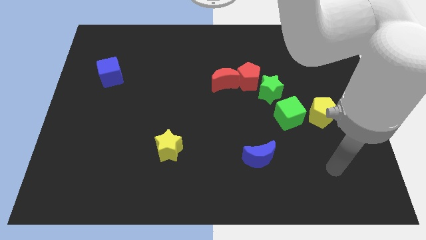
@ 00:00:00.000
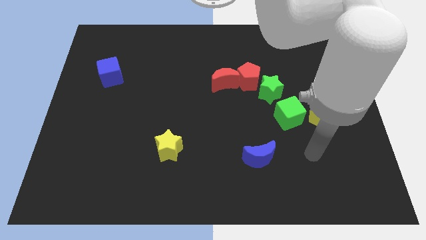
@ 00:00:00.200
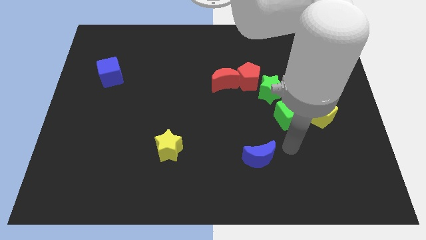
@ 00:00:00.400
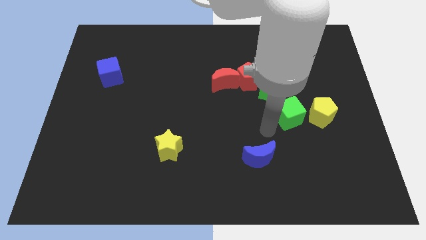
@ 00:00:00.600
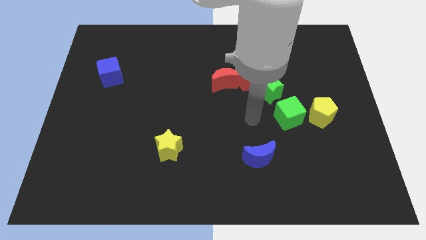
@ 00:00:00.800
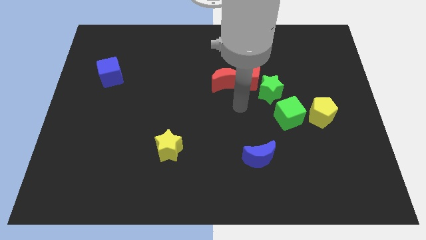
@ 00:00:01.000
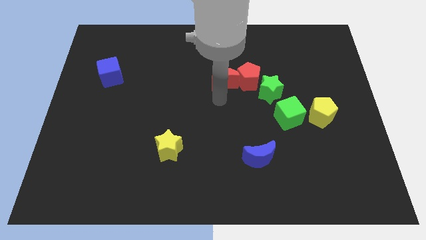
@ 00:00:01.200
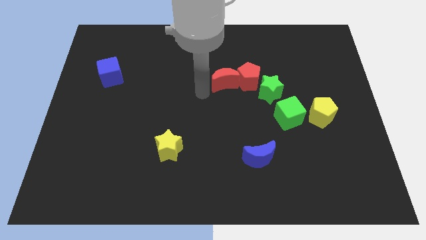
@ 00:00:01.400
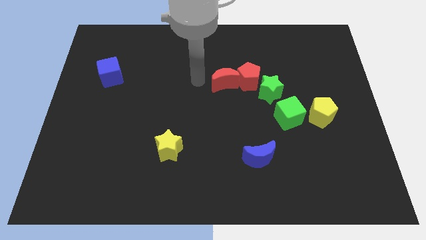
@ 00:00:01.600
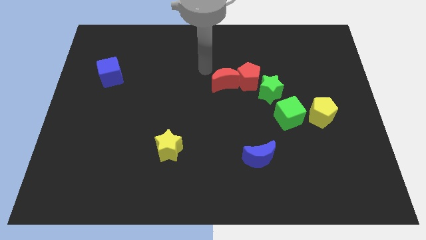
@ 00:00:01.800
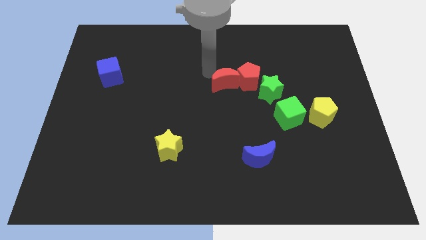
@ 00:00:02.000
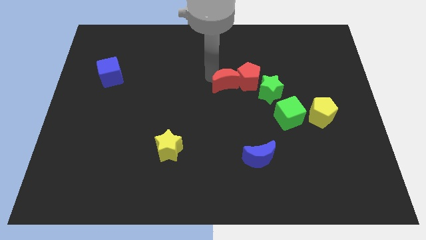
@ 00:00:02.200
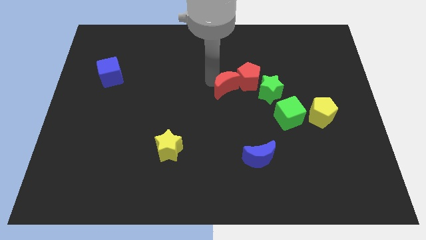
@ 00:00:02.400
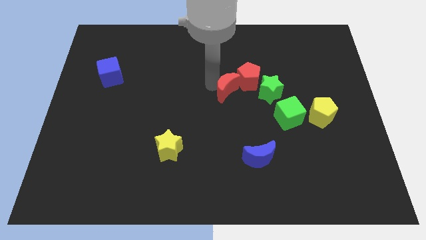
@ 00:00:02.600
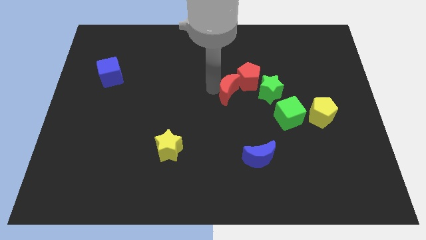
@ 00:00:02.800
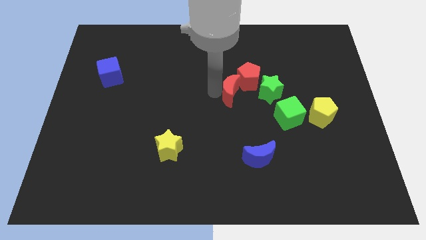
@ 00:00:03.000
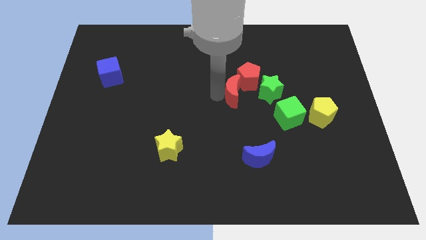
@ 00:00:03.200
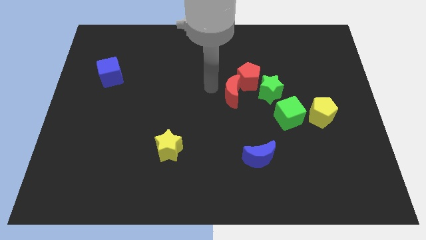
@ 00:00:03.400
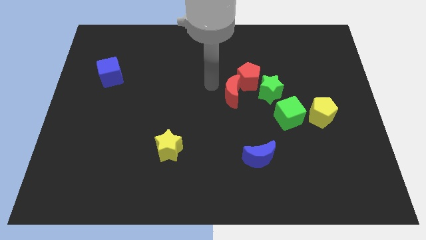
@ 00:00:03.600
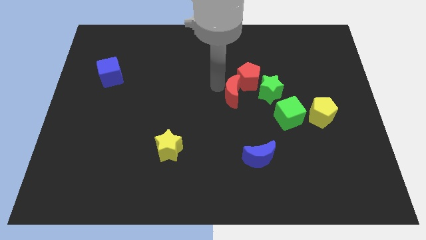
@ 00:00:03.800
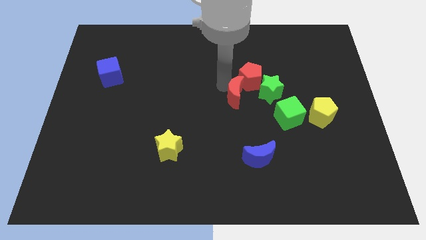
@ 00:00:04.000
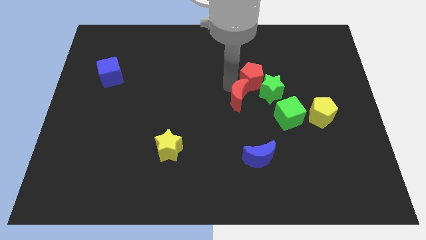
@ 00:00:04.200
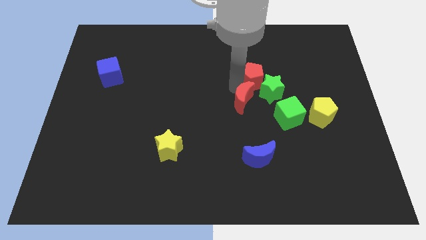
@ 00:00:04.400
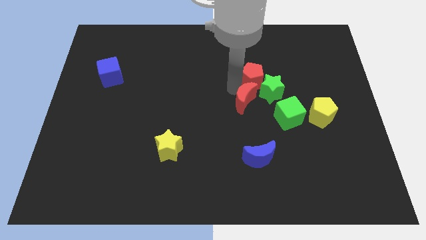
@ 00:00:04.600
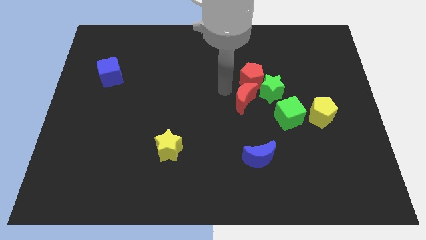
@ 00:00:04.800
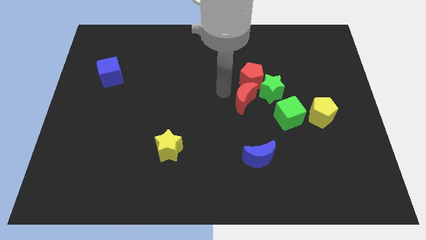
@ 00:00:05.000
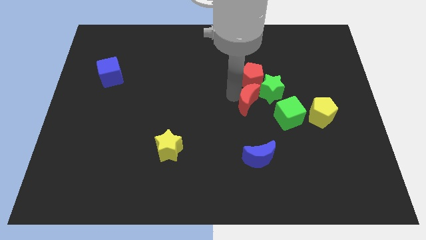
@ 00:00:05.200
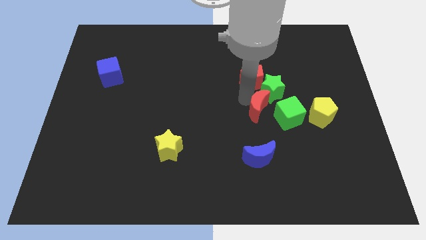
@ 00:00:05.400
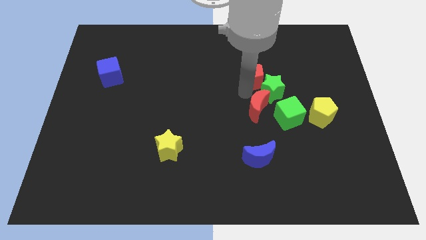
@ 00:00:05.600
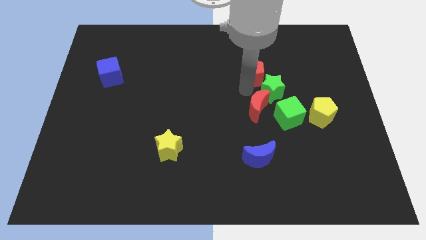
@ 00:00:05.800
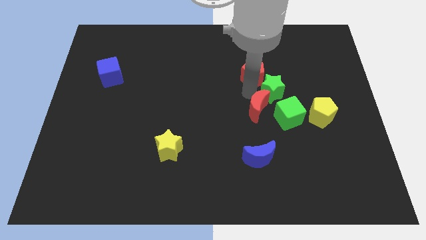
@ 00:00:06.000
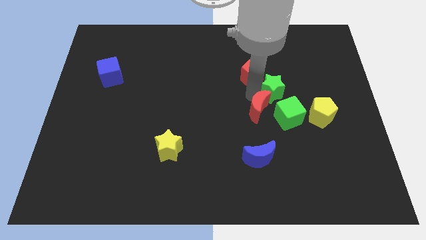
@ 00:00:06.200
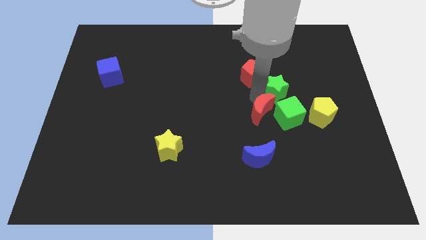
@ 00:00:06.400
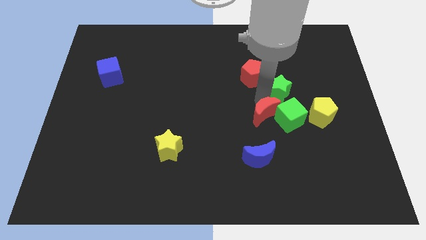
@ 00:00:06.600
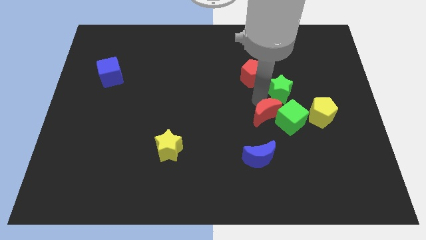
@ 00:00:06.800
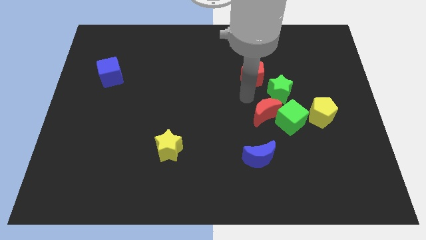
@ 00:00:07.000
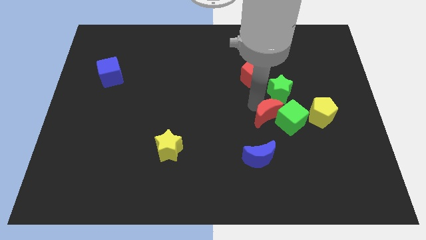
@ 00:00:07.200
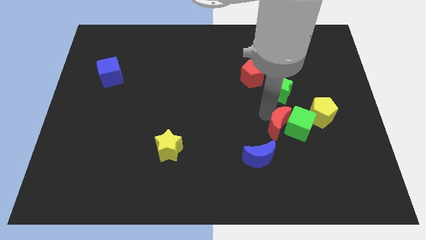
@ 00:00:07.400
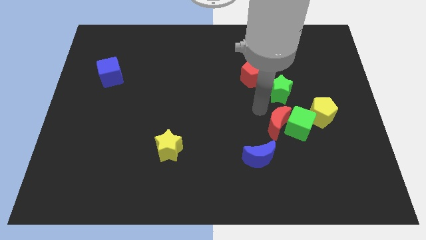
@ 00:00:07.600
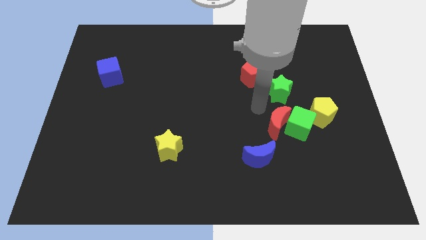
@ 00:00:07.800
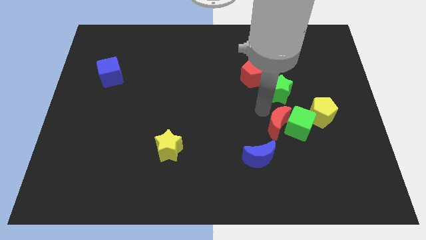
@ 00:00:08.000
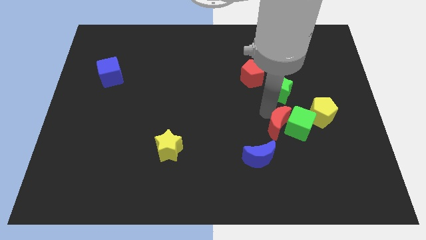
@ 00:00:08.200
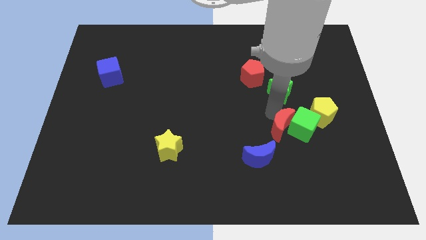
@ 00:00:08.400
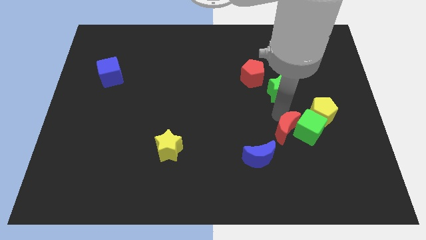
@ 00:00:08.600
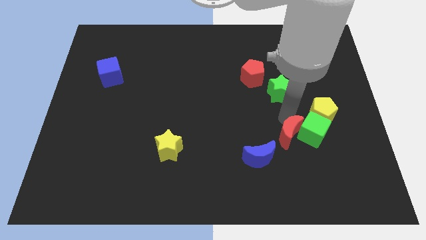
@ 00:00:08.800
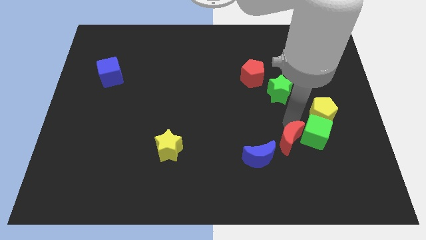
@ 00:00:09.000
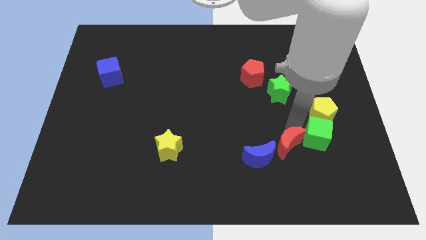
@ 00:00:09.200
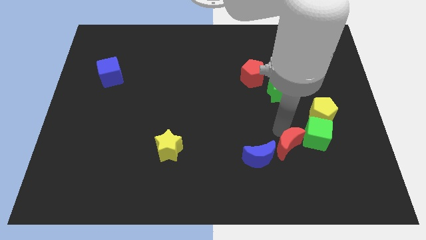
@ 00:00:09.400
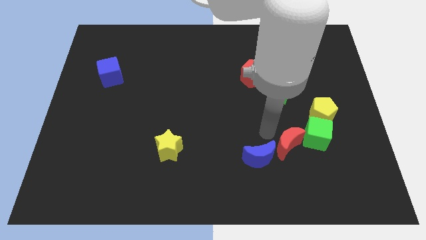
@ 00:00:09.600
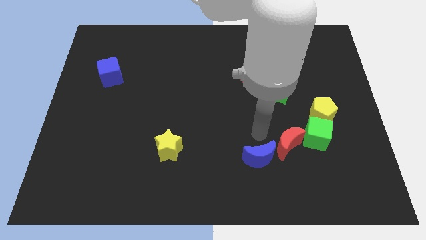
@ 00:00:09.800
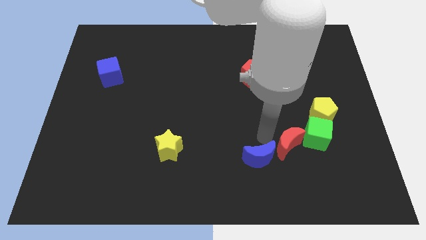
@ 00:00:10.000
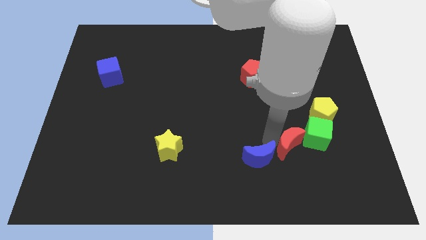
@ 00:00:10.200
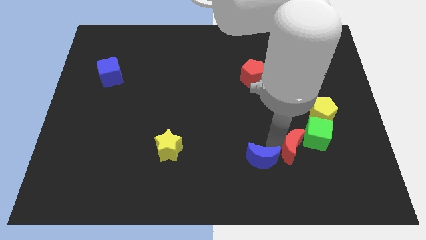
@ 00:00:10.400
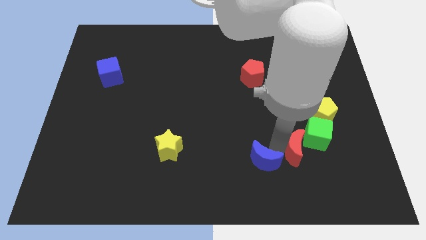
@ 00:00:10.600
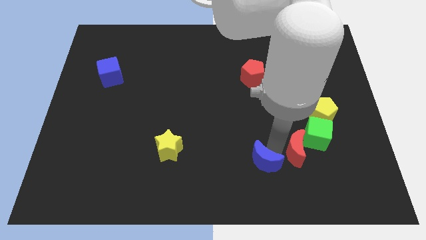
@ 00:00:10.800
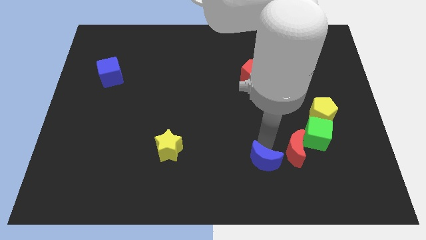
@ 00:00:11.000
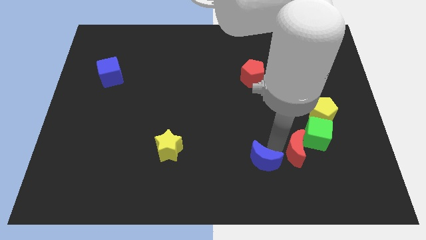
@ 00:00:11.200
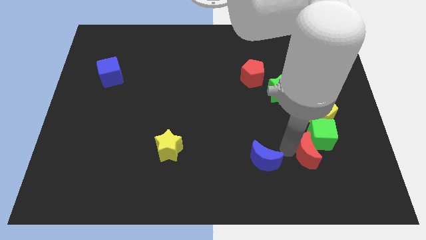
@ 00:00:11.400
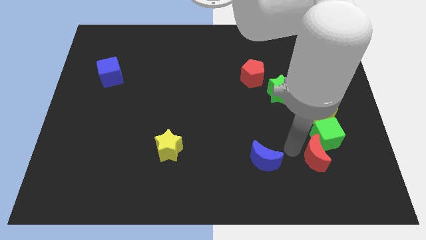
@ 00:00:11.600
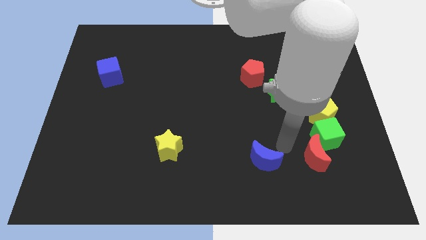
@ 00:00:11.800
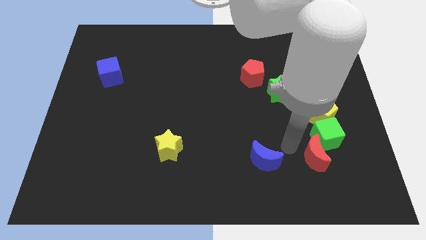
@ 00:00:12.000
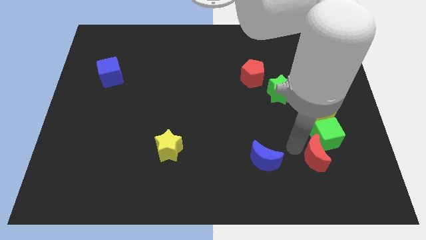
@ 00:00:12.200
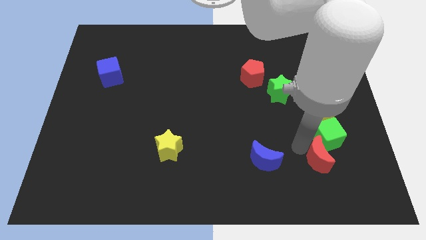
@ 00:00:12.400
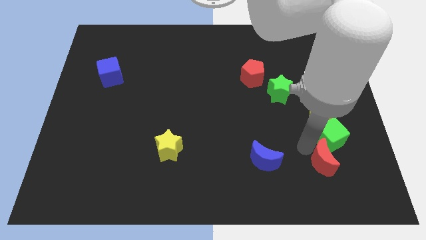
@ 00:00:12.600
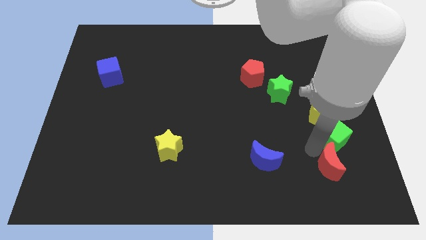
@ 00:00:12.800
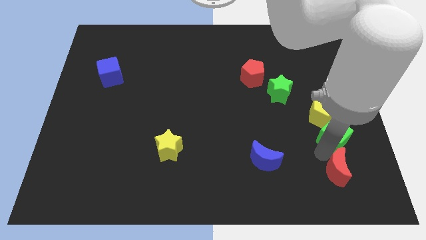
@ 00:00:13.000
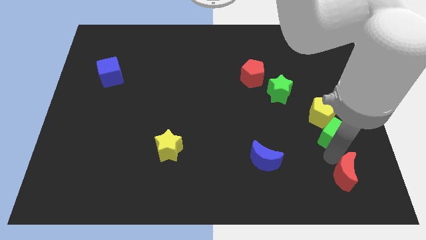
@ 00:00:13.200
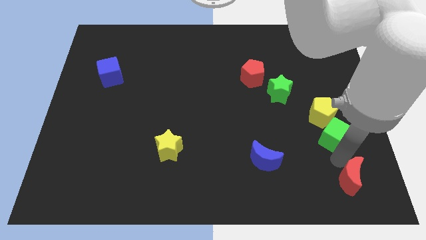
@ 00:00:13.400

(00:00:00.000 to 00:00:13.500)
put the red moon to the bottom right
